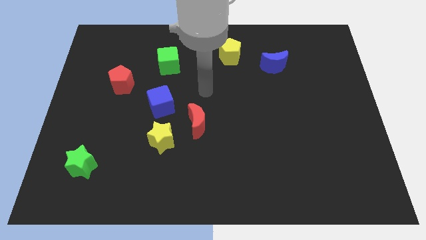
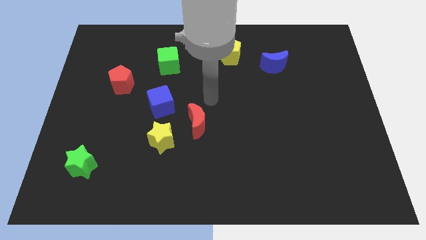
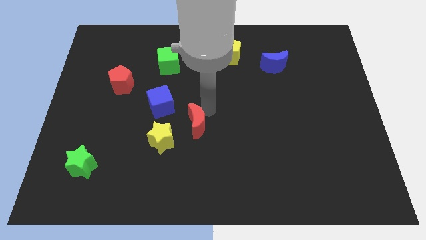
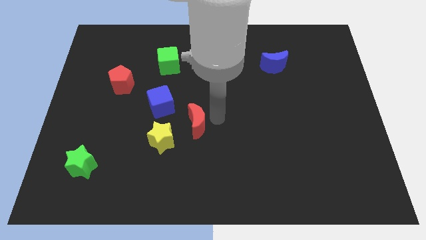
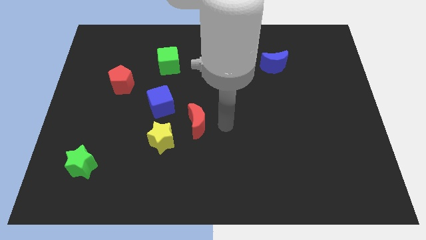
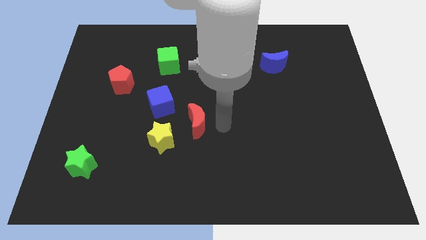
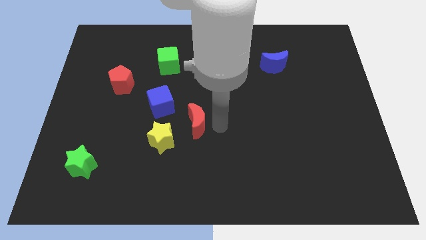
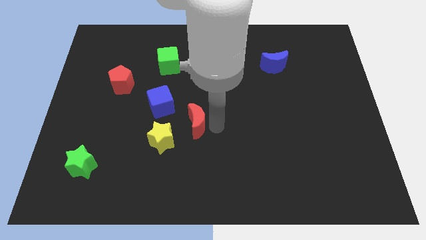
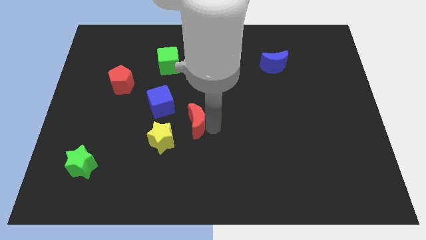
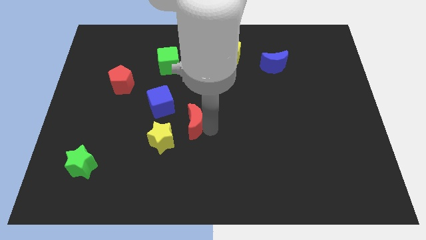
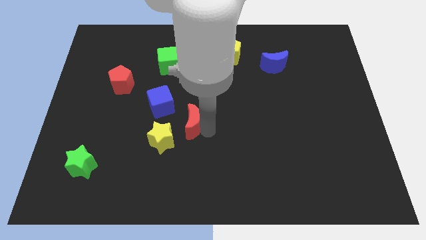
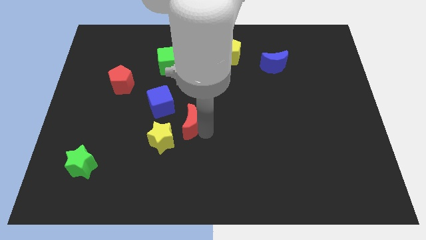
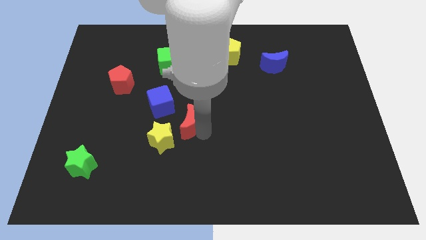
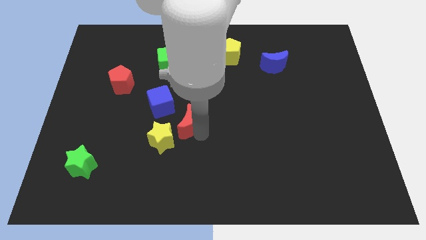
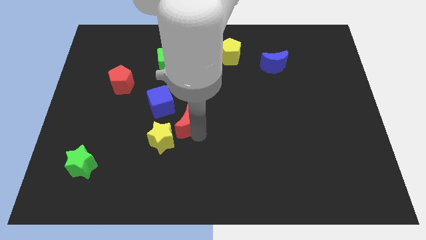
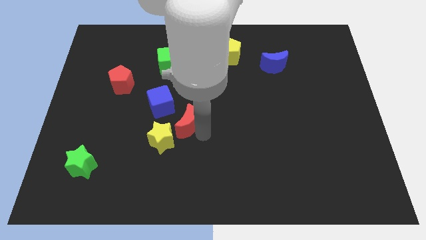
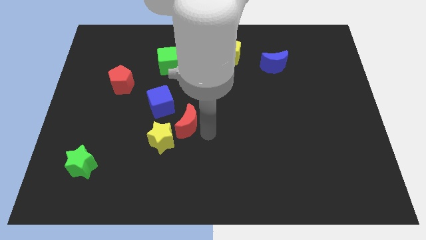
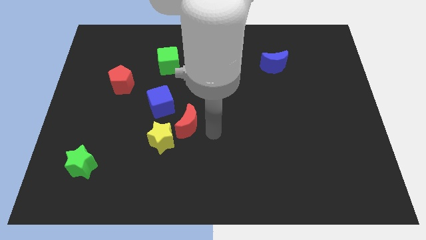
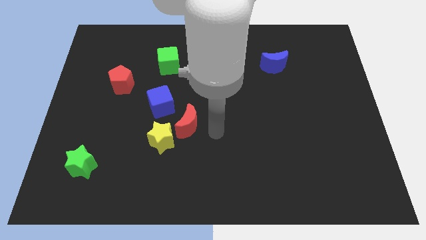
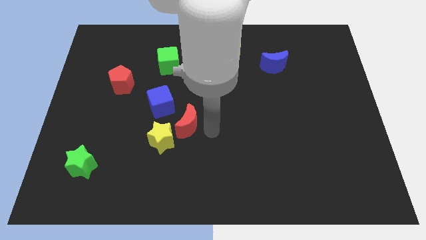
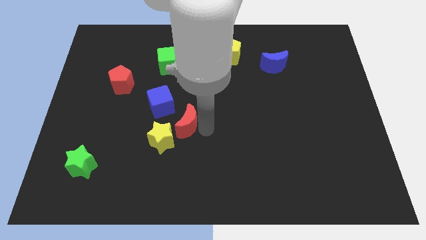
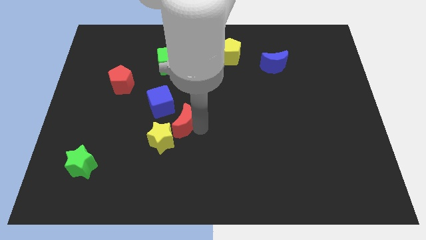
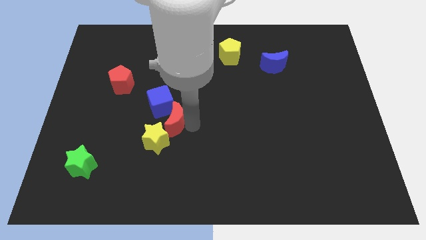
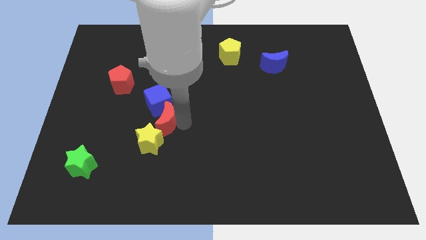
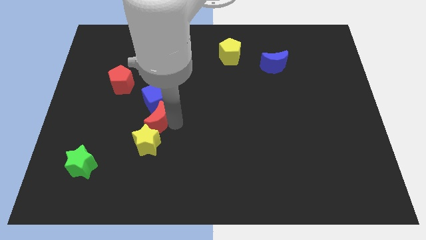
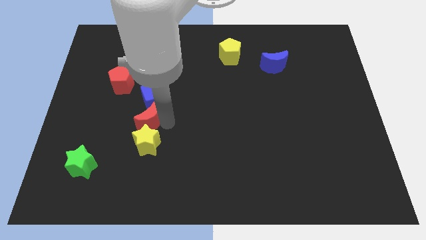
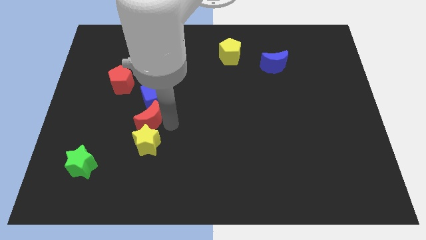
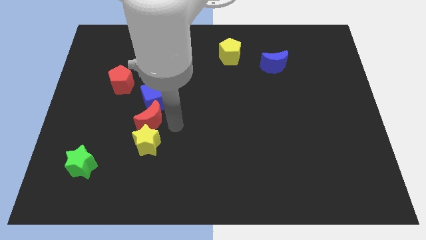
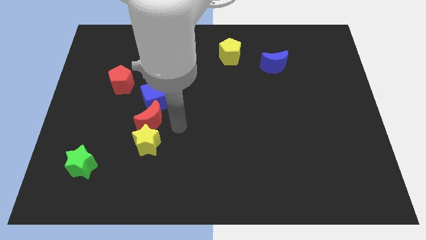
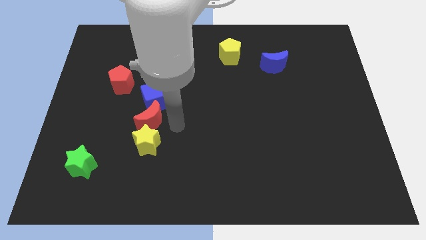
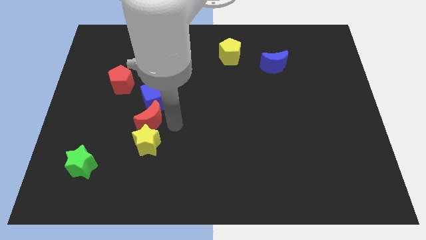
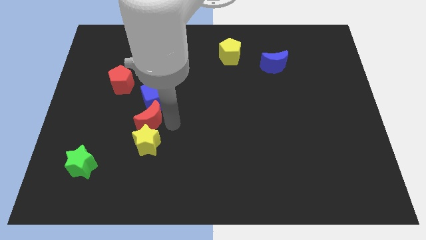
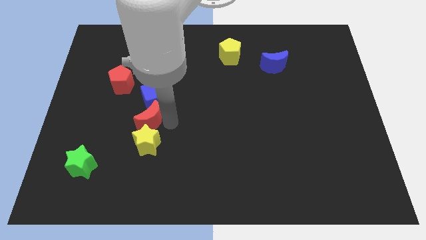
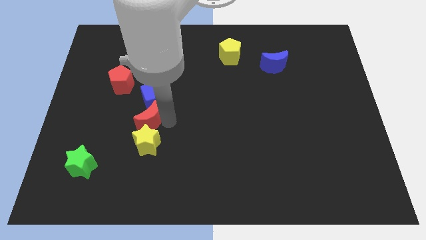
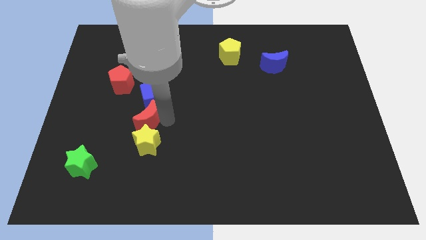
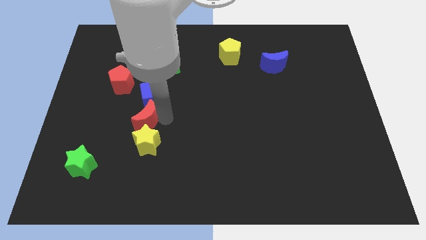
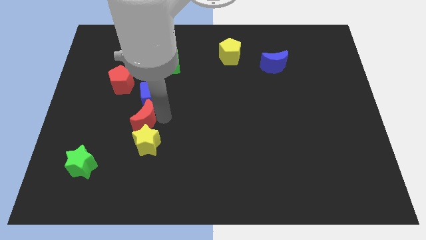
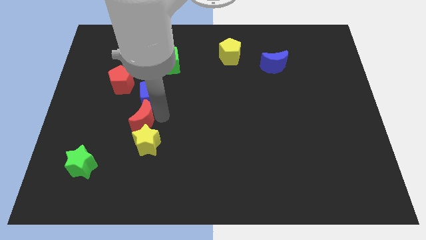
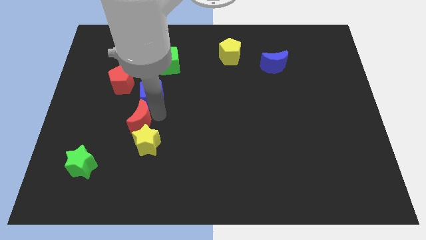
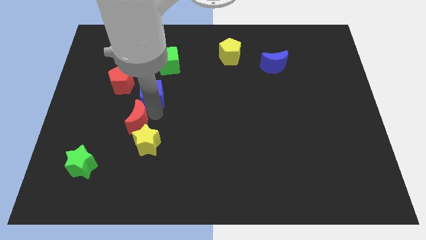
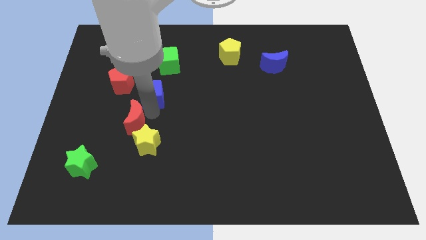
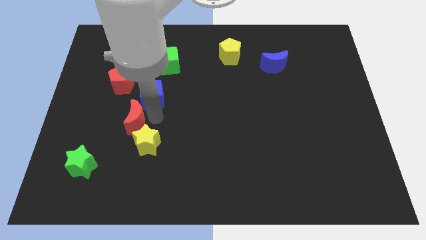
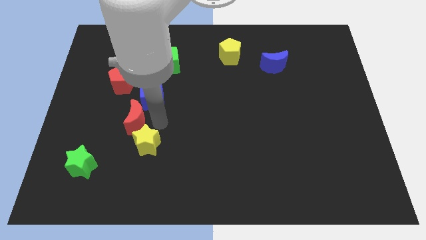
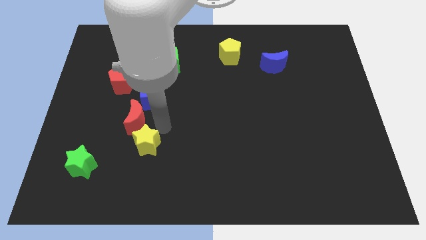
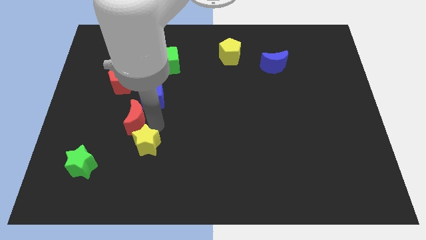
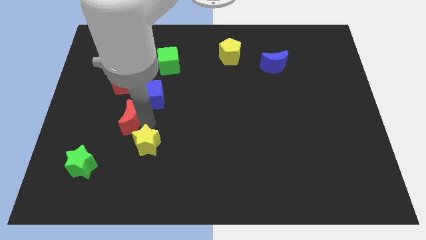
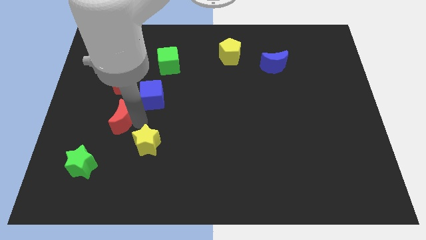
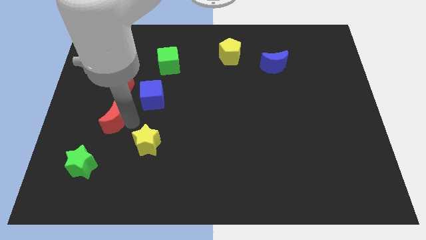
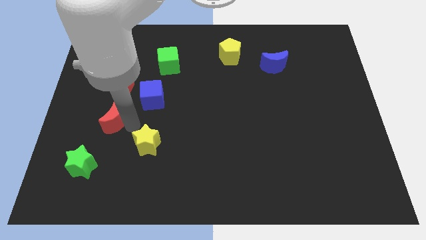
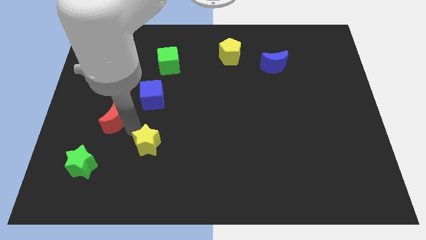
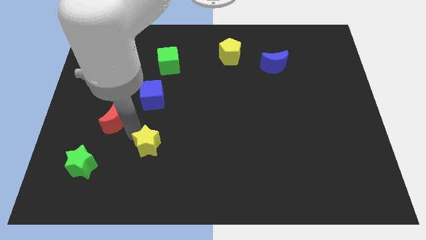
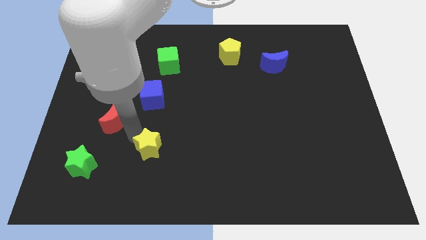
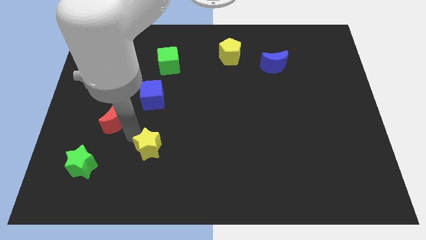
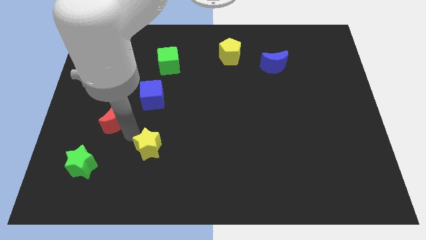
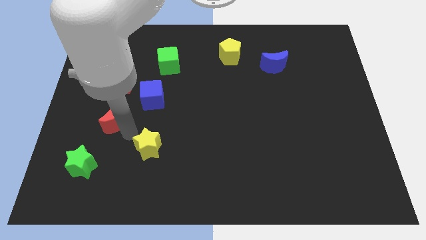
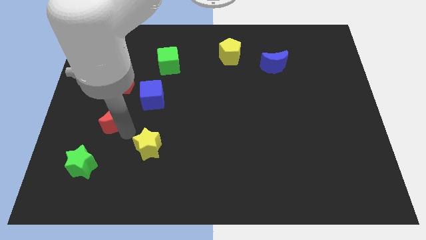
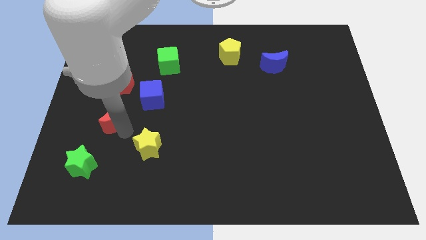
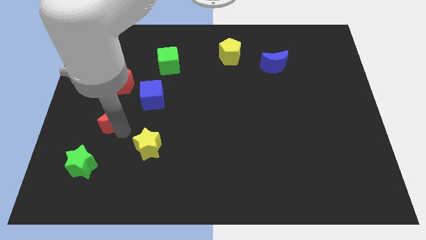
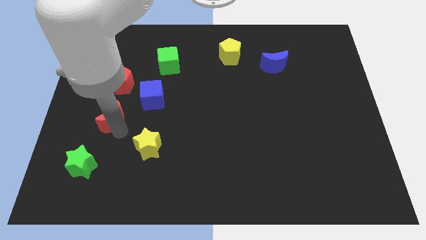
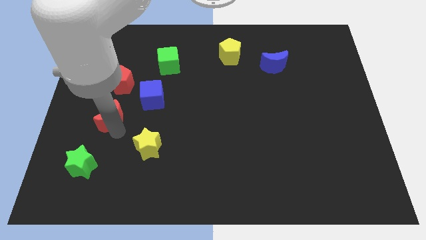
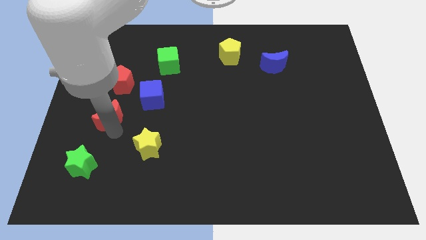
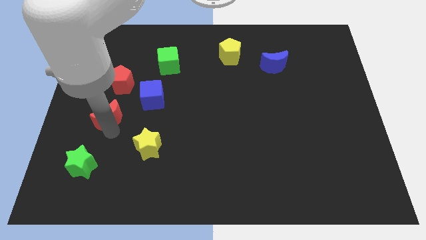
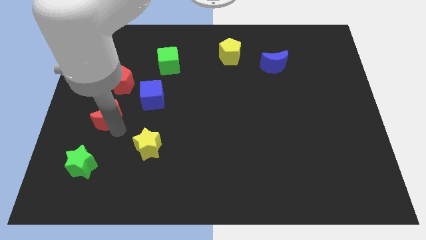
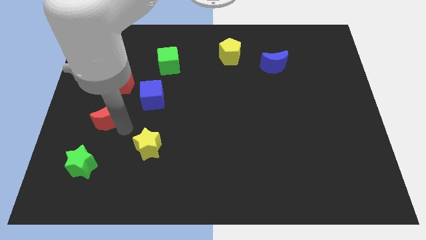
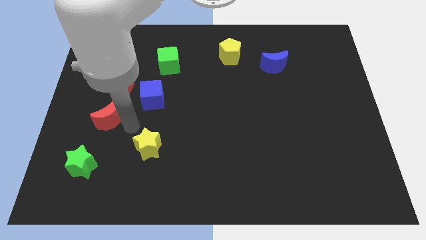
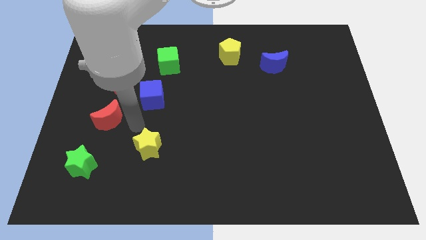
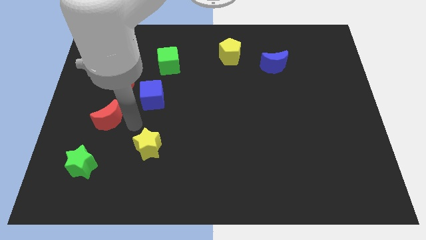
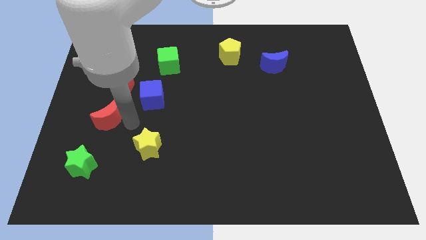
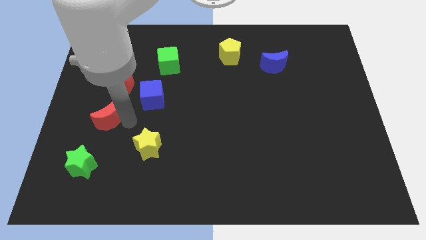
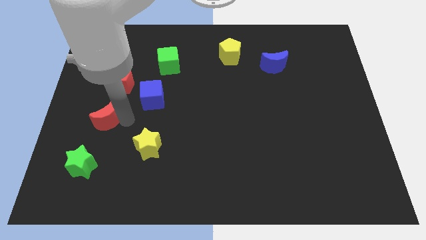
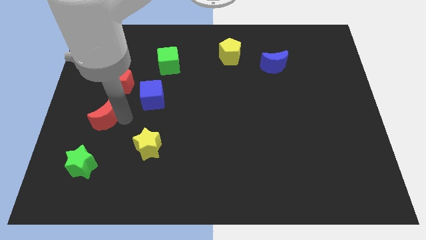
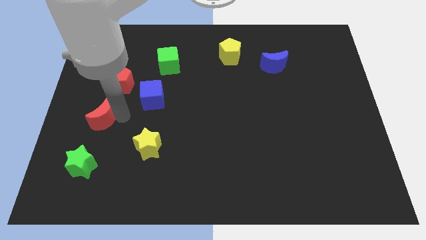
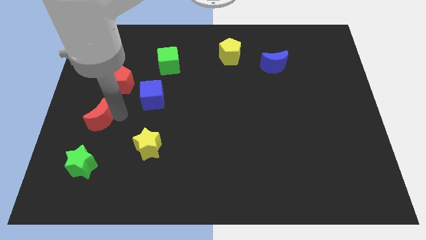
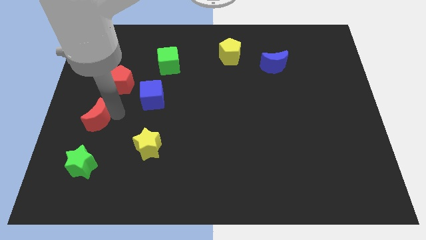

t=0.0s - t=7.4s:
slide the red moon to the center left
